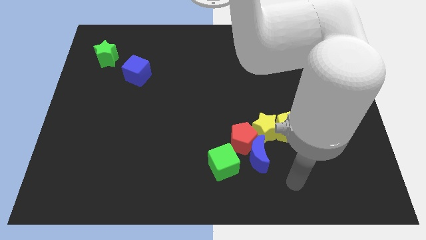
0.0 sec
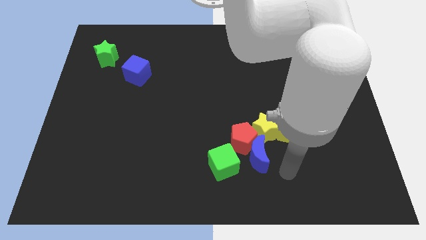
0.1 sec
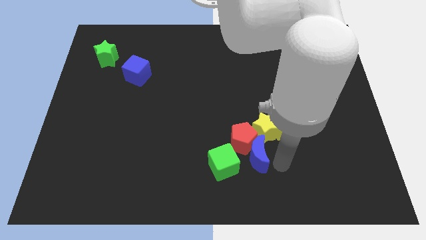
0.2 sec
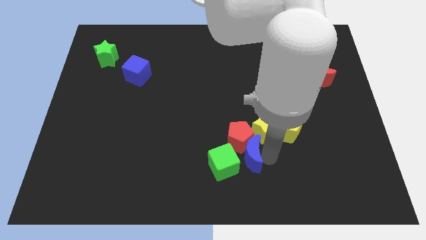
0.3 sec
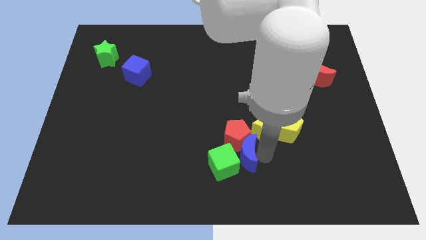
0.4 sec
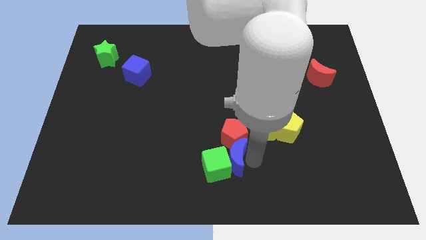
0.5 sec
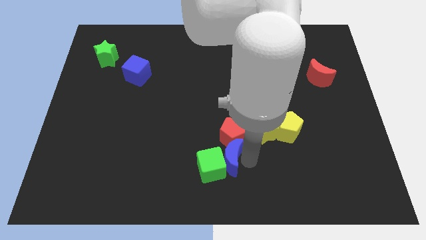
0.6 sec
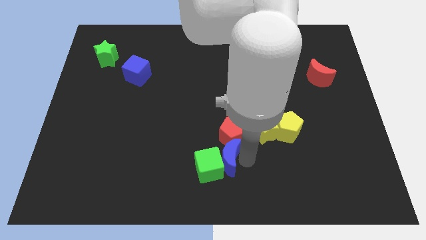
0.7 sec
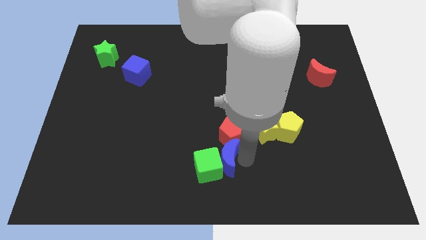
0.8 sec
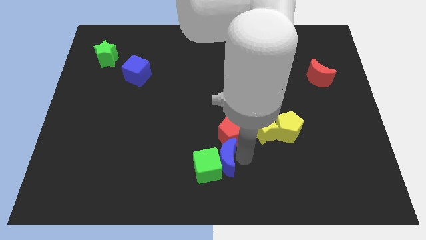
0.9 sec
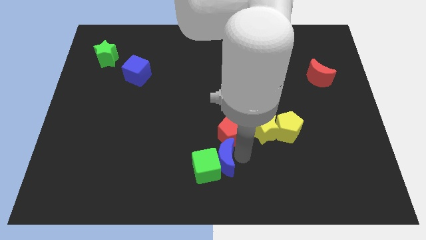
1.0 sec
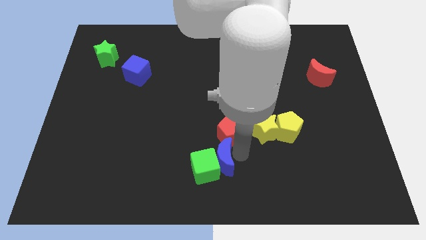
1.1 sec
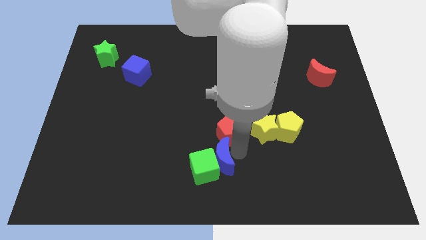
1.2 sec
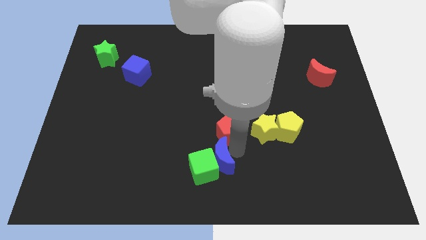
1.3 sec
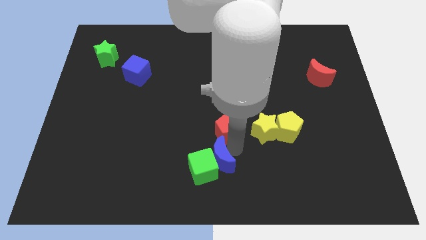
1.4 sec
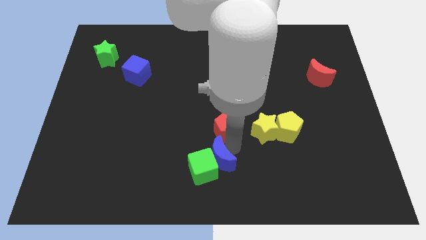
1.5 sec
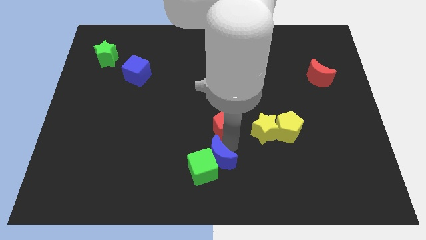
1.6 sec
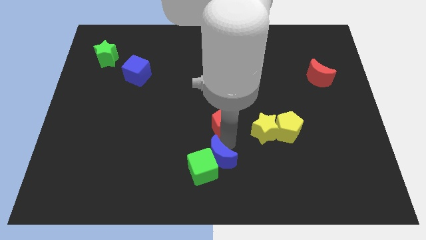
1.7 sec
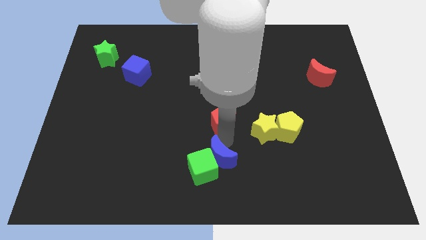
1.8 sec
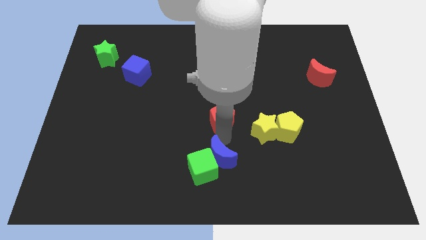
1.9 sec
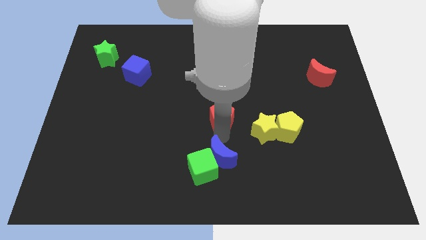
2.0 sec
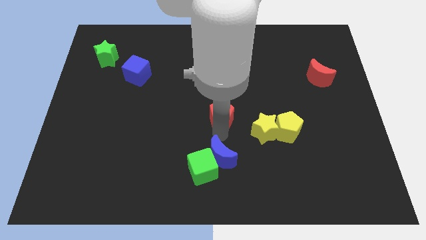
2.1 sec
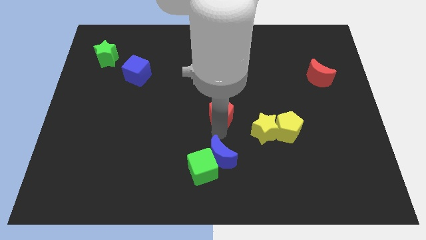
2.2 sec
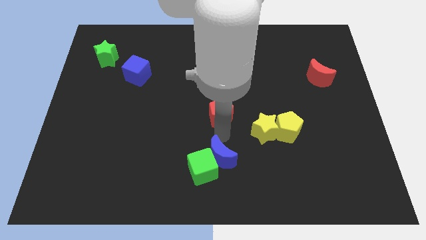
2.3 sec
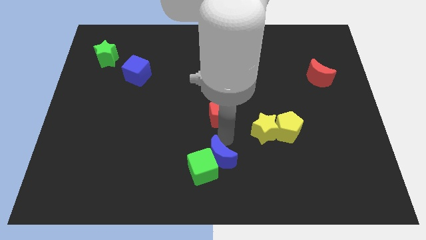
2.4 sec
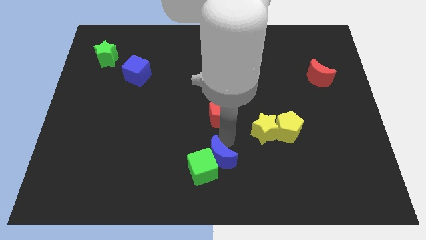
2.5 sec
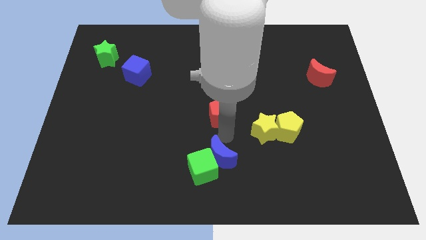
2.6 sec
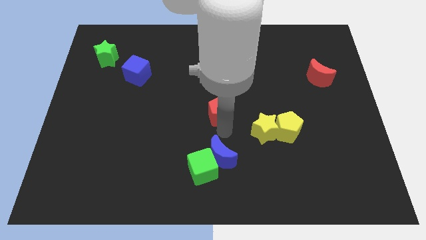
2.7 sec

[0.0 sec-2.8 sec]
separate the red pentagon from the blue moon, yellow star, and green cube

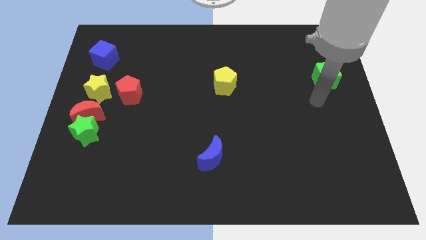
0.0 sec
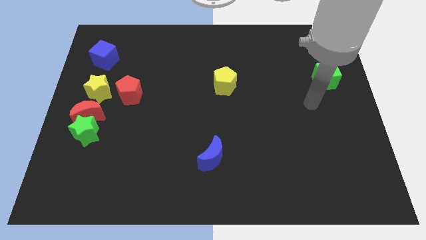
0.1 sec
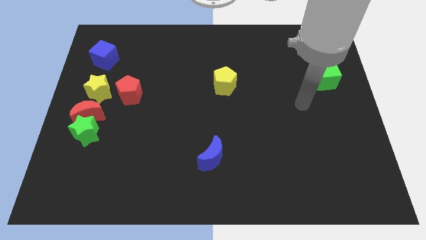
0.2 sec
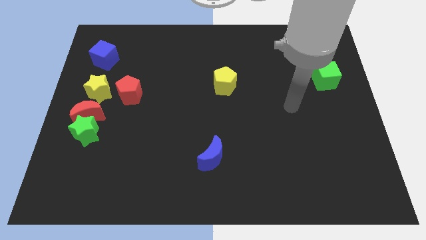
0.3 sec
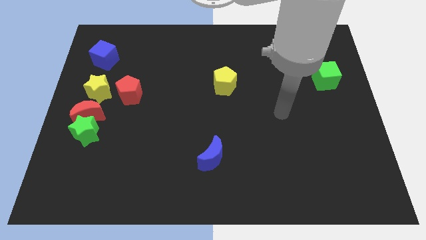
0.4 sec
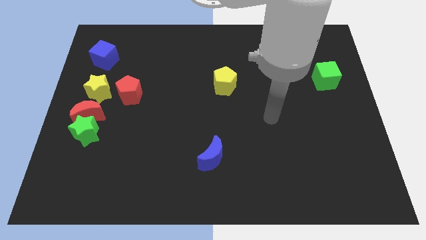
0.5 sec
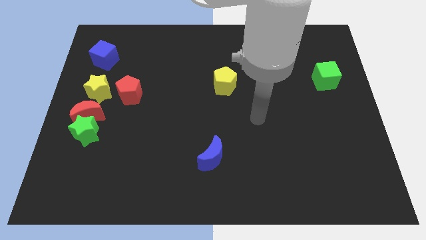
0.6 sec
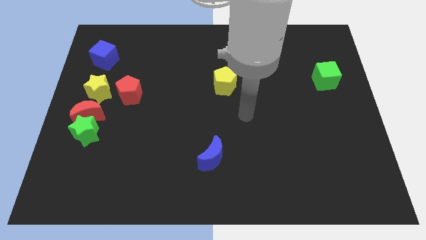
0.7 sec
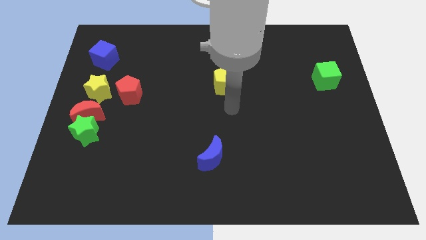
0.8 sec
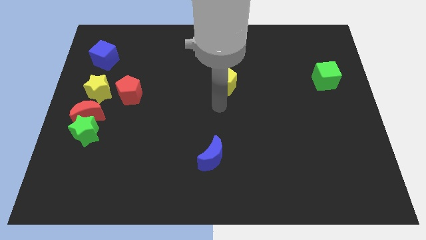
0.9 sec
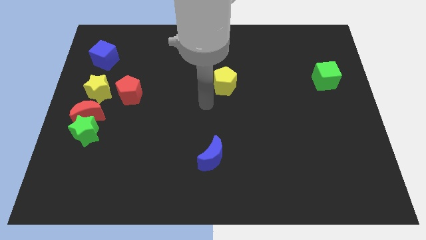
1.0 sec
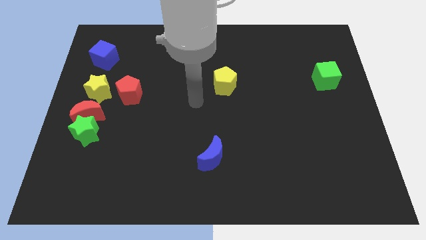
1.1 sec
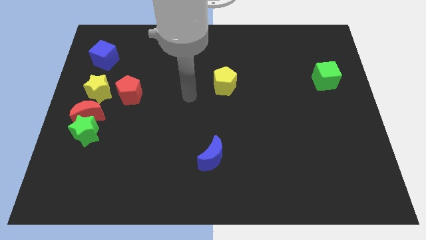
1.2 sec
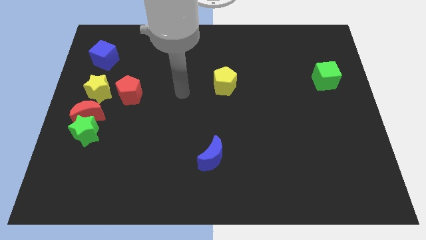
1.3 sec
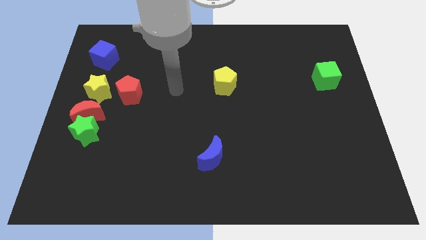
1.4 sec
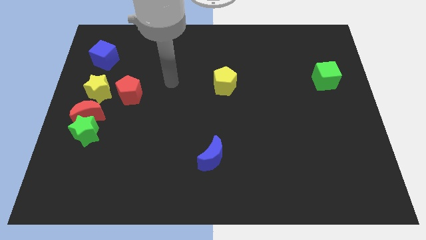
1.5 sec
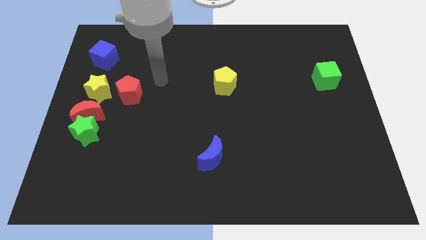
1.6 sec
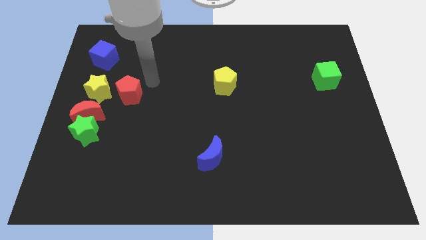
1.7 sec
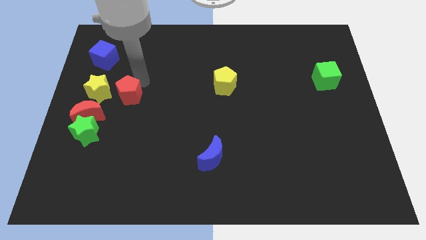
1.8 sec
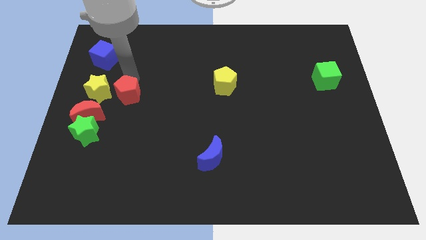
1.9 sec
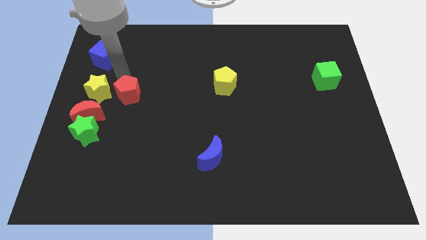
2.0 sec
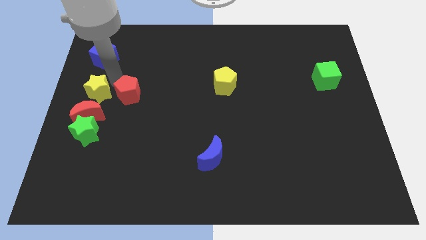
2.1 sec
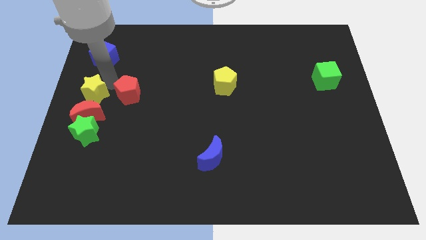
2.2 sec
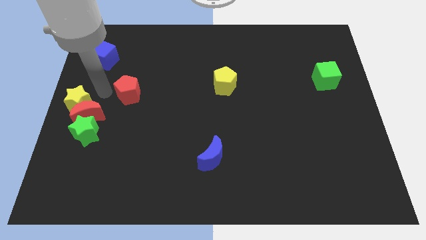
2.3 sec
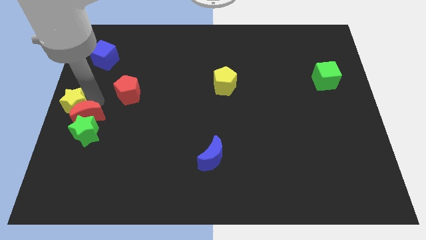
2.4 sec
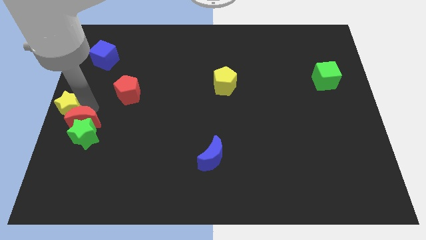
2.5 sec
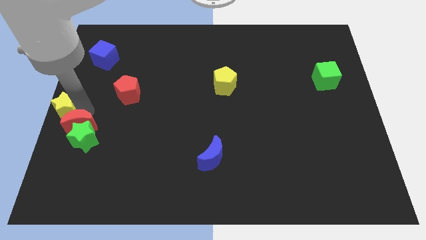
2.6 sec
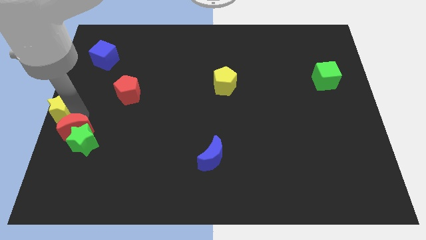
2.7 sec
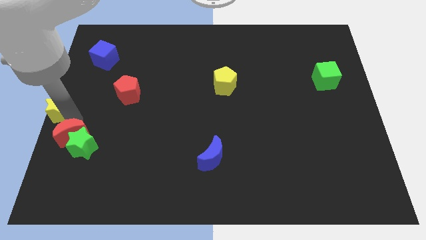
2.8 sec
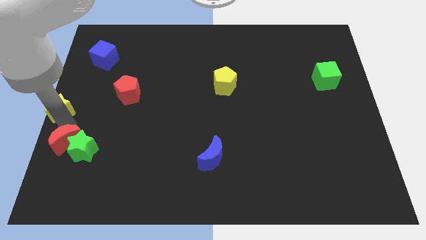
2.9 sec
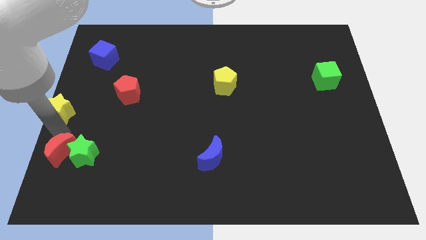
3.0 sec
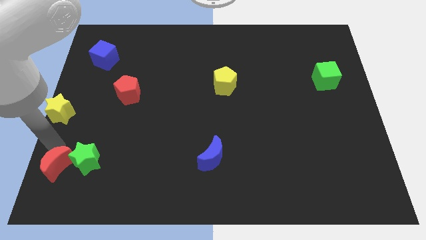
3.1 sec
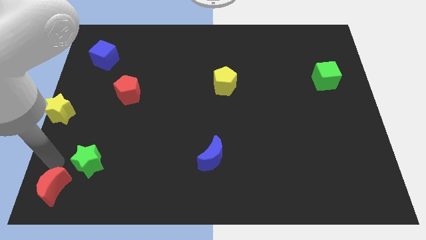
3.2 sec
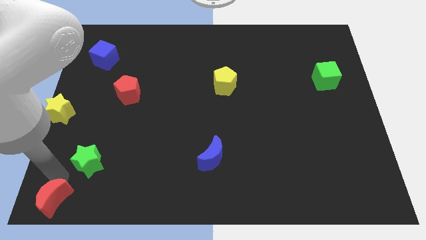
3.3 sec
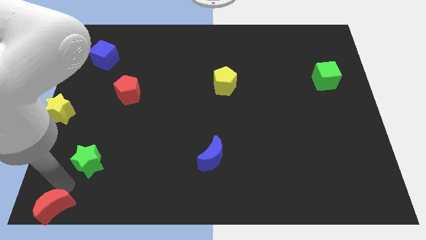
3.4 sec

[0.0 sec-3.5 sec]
separate the green star from the red moon

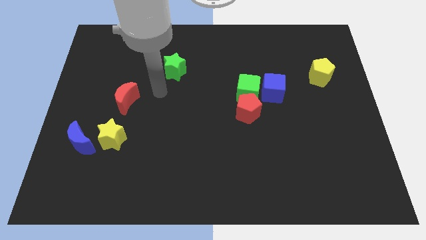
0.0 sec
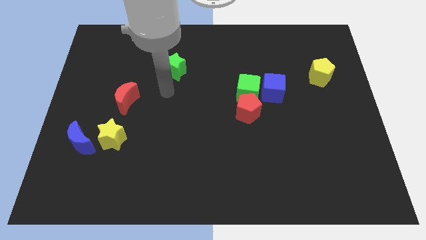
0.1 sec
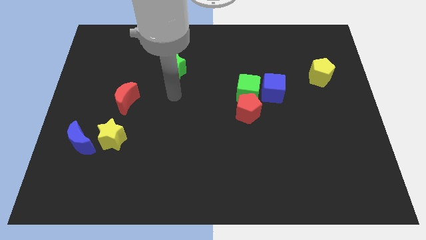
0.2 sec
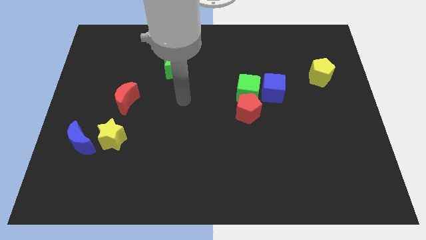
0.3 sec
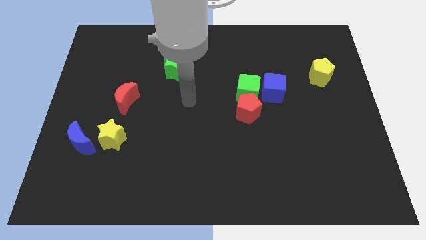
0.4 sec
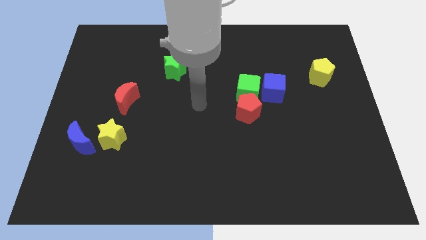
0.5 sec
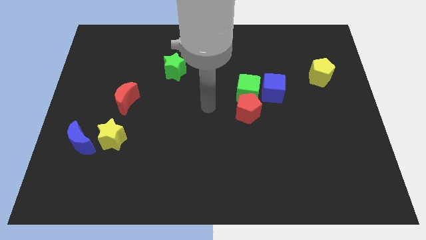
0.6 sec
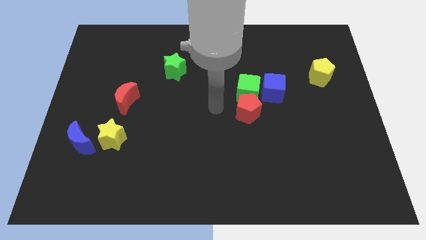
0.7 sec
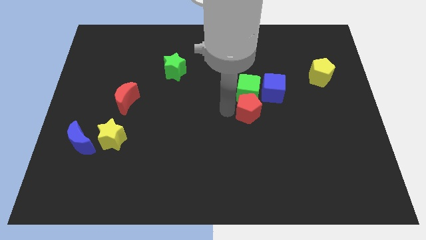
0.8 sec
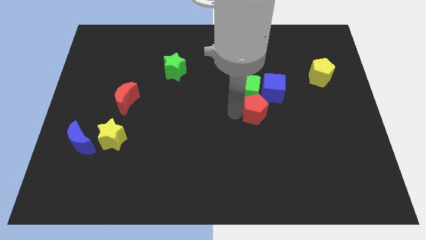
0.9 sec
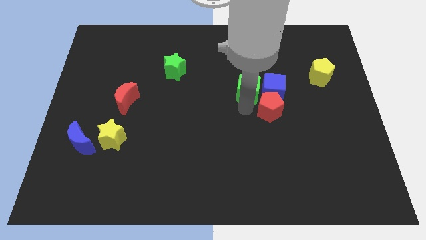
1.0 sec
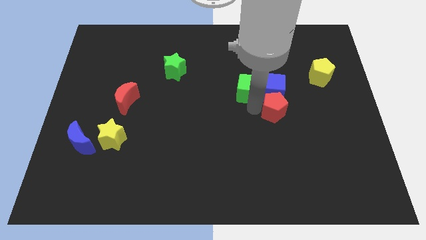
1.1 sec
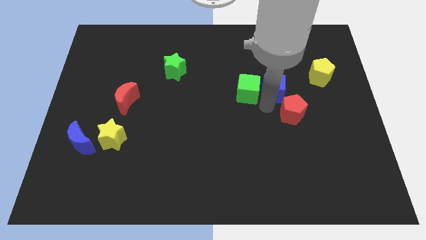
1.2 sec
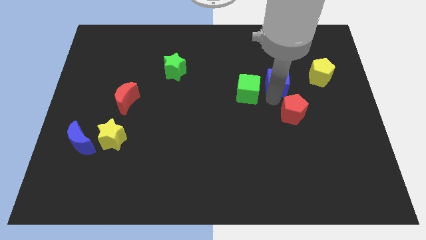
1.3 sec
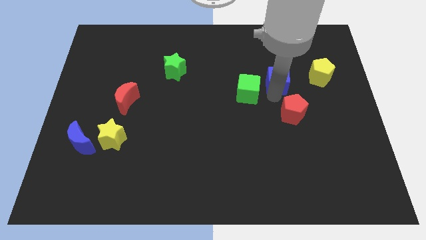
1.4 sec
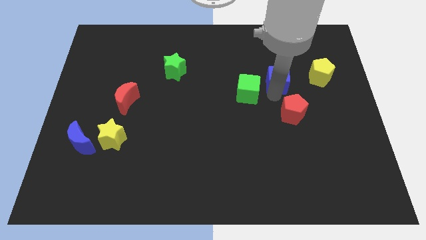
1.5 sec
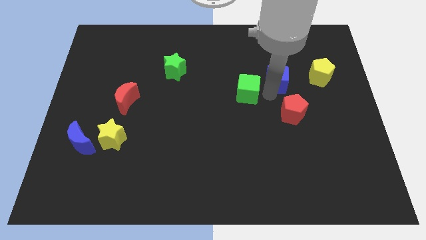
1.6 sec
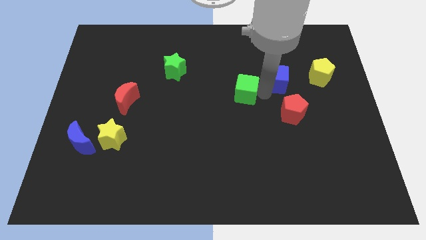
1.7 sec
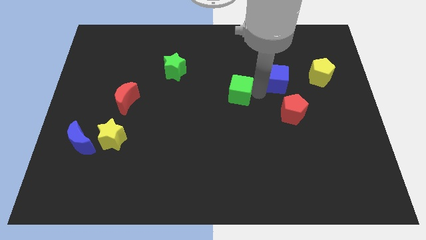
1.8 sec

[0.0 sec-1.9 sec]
separate the green cube from the red pentagon and blue cube

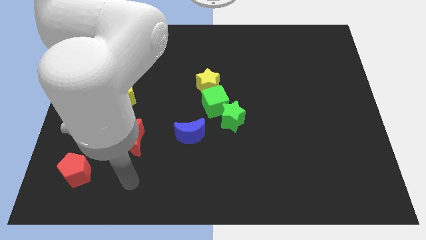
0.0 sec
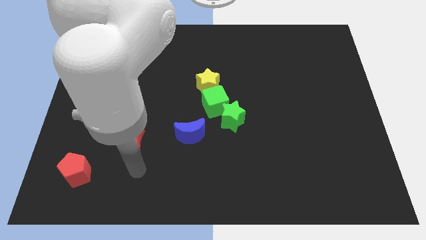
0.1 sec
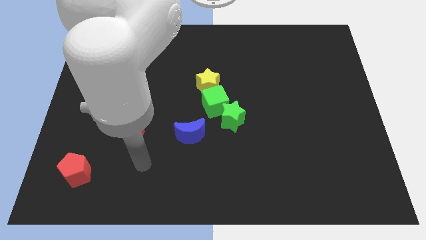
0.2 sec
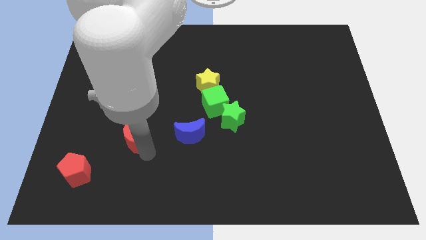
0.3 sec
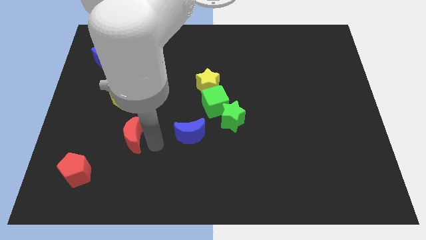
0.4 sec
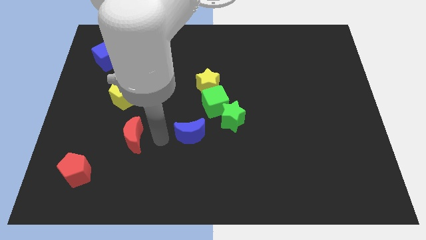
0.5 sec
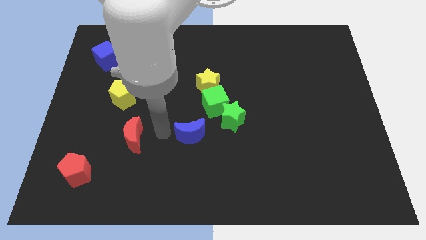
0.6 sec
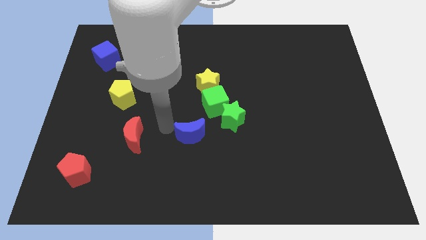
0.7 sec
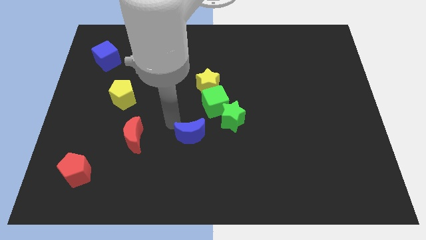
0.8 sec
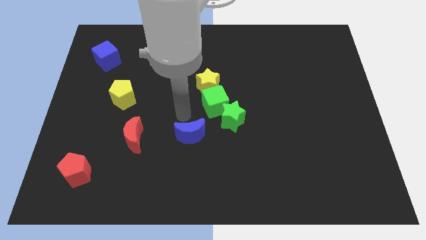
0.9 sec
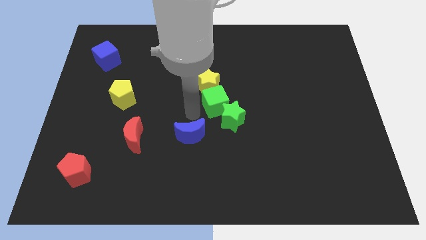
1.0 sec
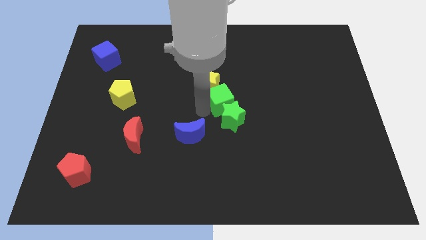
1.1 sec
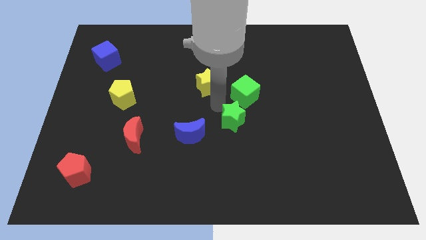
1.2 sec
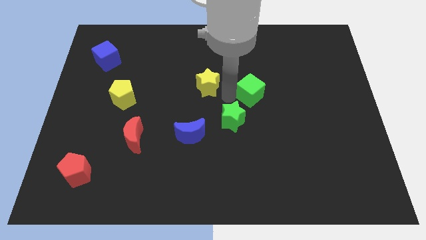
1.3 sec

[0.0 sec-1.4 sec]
move the yellow star away from the green cube
